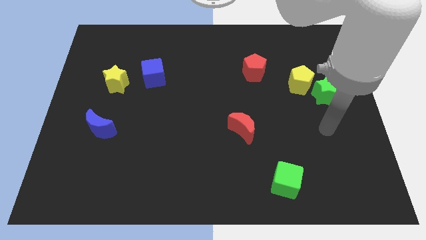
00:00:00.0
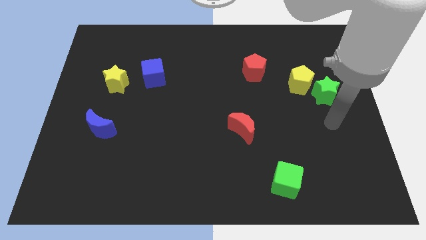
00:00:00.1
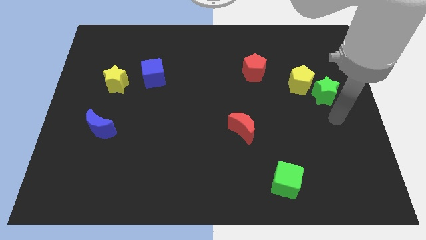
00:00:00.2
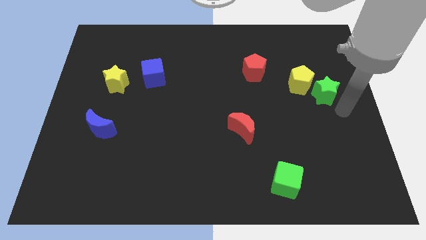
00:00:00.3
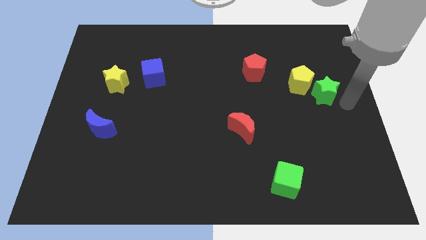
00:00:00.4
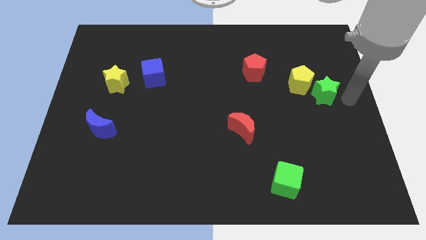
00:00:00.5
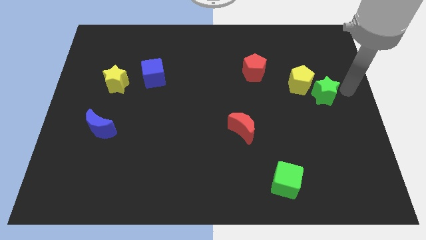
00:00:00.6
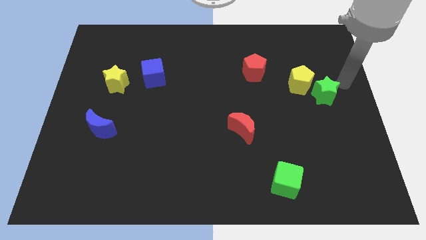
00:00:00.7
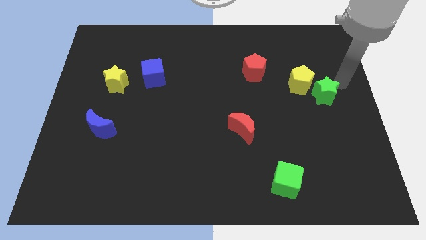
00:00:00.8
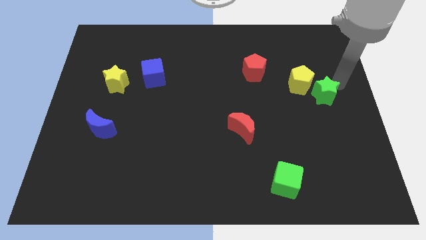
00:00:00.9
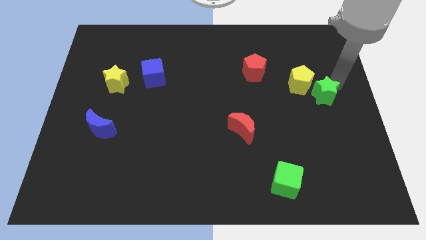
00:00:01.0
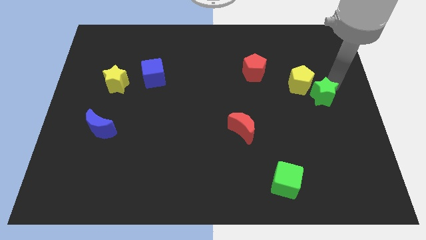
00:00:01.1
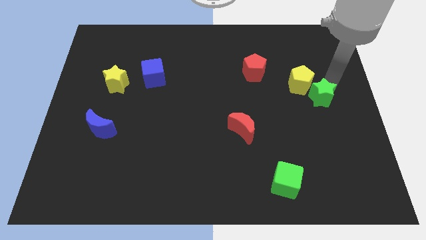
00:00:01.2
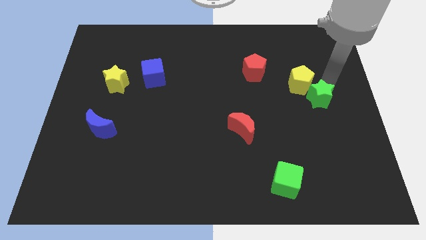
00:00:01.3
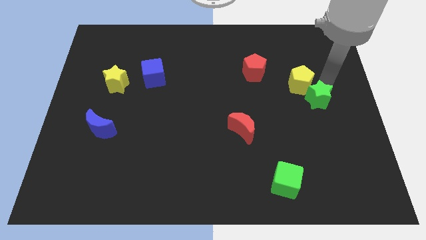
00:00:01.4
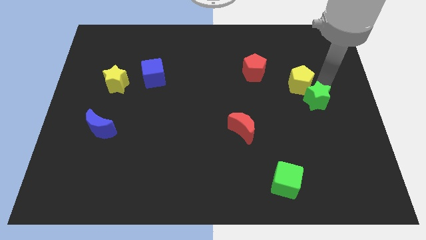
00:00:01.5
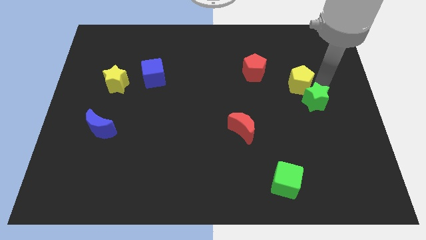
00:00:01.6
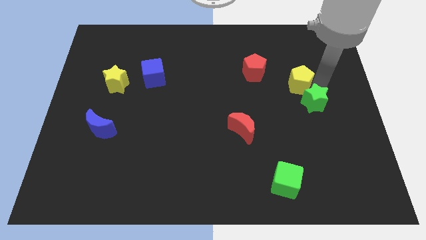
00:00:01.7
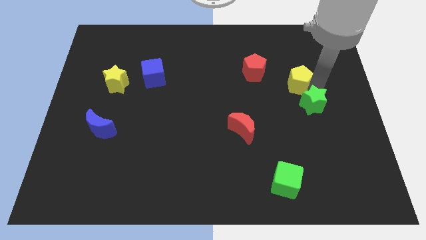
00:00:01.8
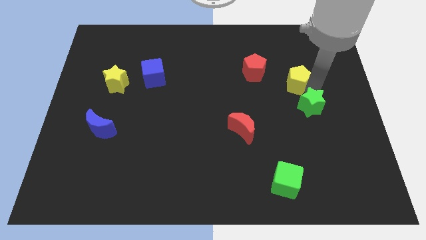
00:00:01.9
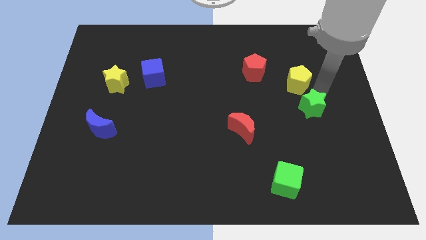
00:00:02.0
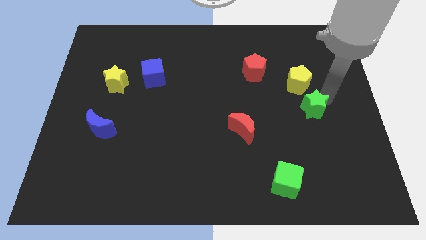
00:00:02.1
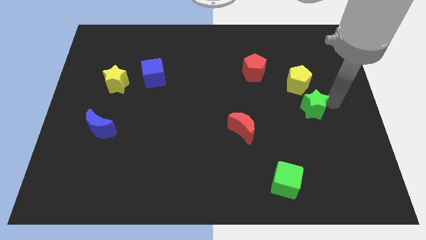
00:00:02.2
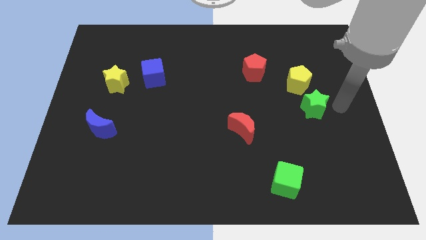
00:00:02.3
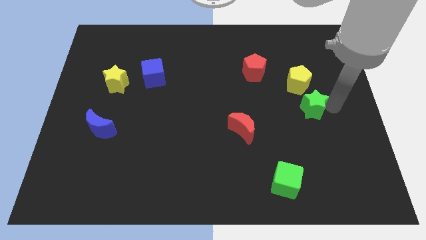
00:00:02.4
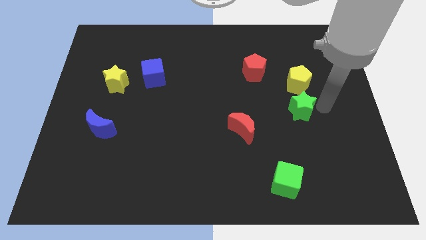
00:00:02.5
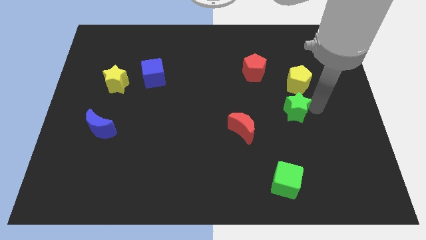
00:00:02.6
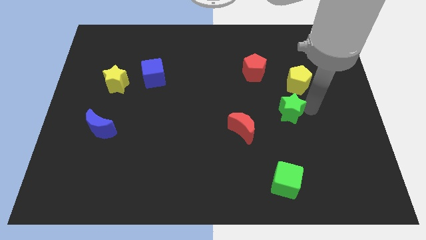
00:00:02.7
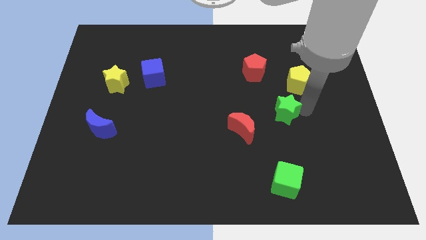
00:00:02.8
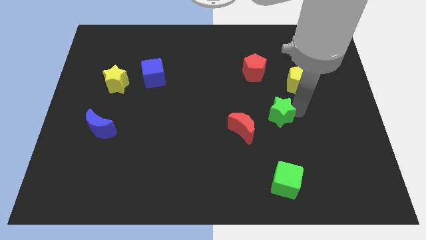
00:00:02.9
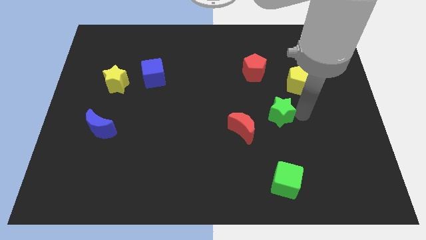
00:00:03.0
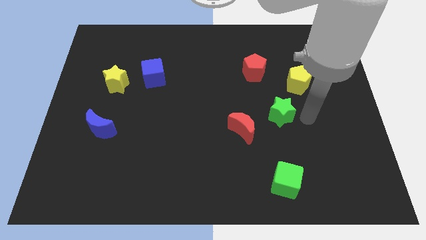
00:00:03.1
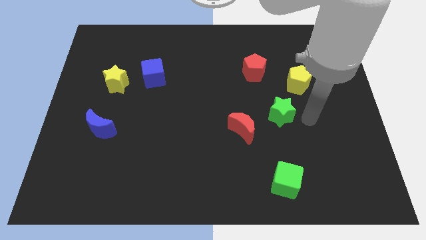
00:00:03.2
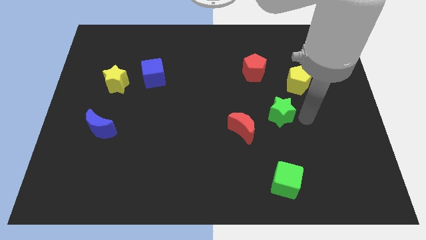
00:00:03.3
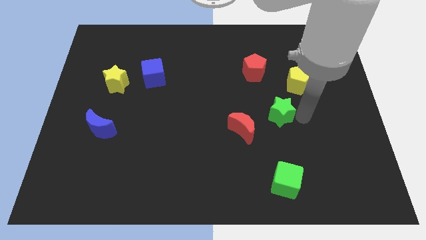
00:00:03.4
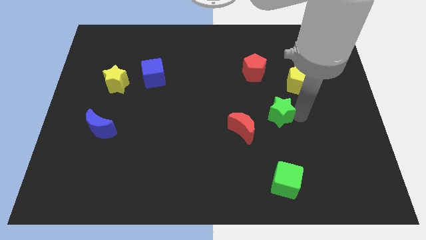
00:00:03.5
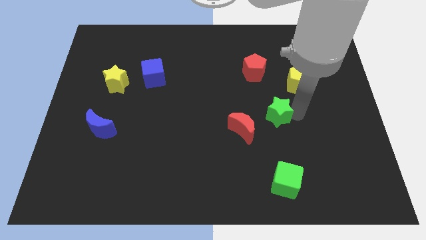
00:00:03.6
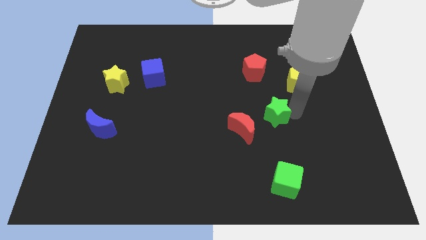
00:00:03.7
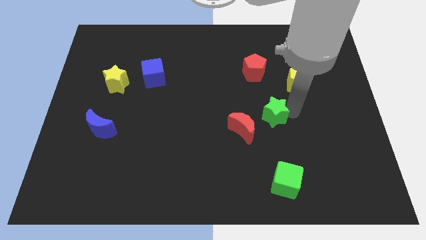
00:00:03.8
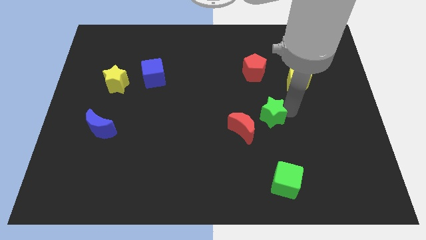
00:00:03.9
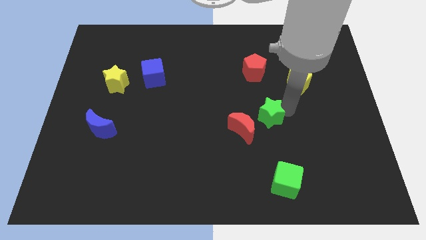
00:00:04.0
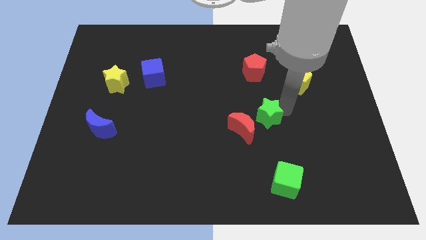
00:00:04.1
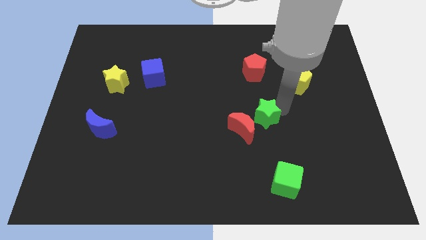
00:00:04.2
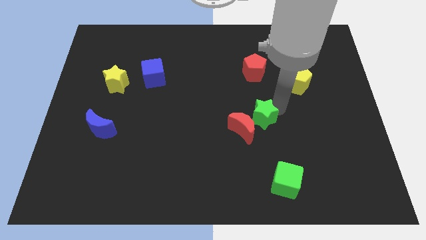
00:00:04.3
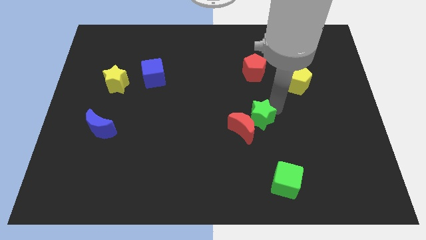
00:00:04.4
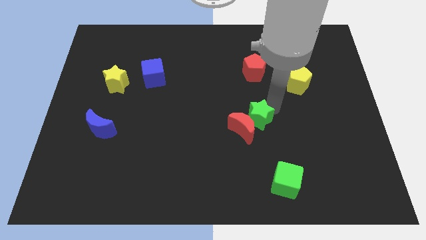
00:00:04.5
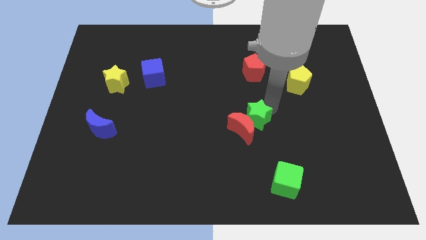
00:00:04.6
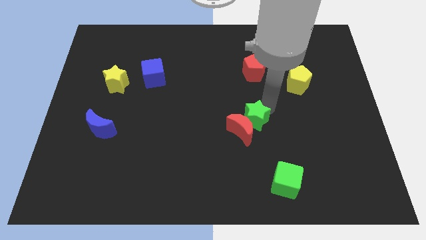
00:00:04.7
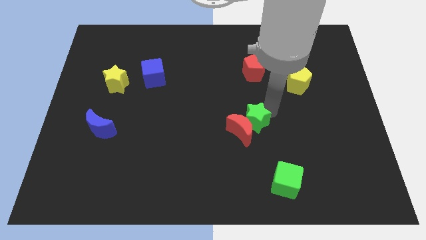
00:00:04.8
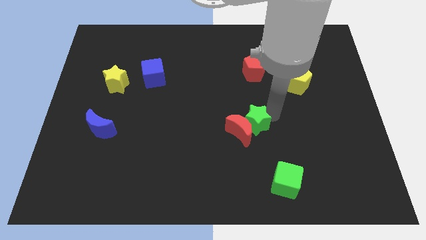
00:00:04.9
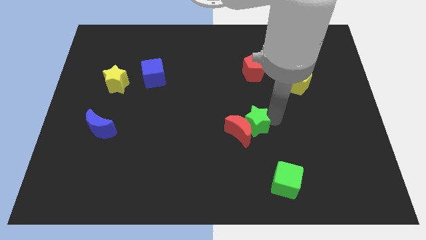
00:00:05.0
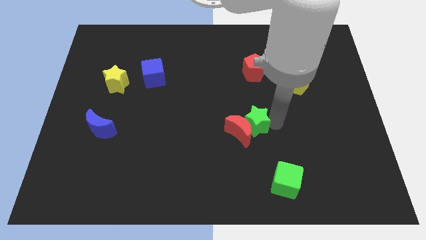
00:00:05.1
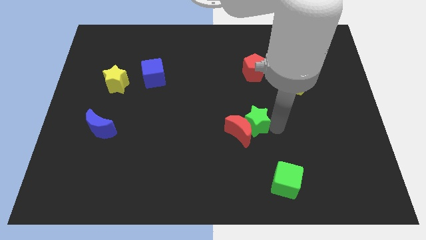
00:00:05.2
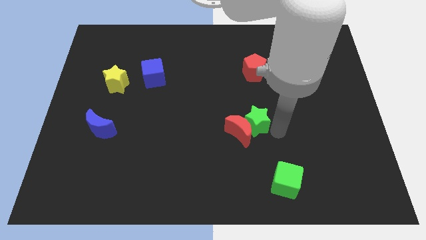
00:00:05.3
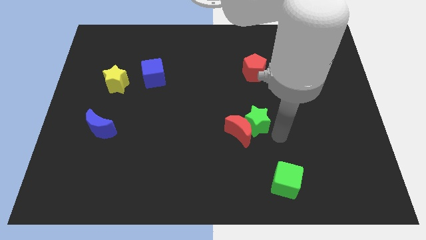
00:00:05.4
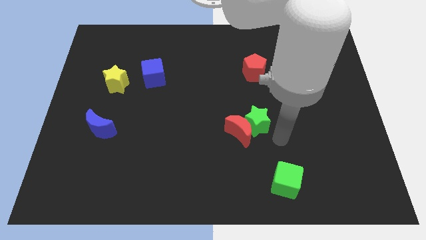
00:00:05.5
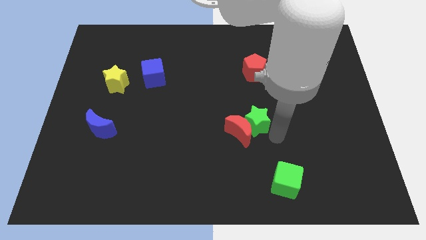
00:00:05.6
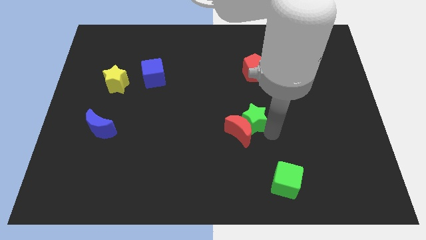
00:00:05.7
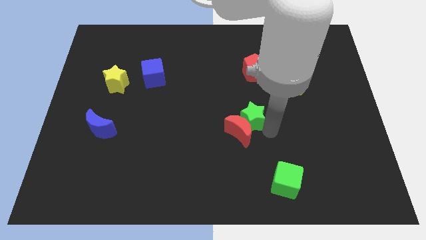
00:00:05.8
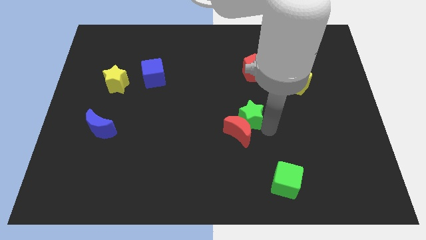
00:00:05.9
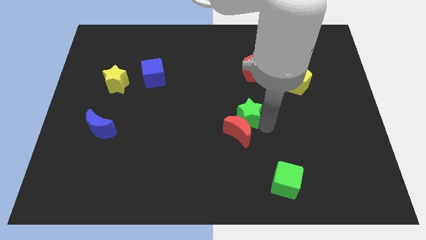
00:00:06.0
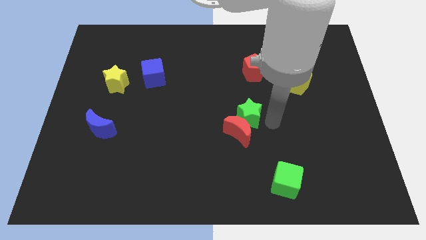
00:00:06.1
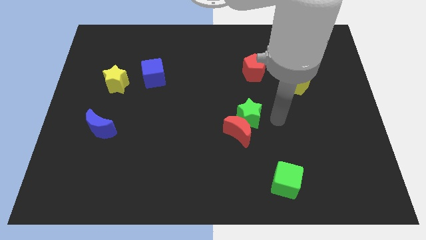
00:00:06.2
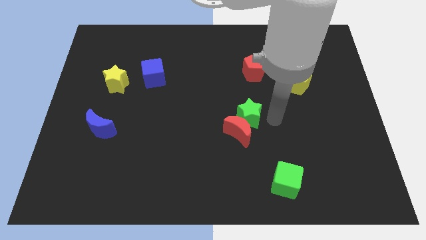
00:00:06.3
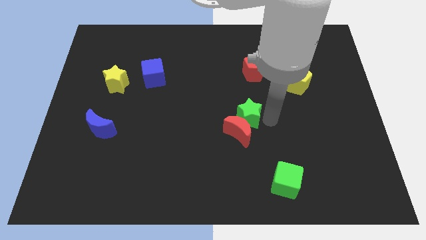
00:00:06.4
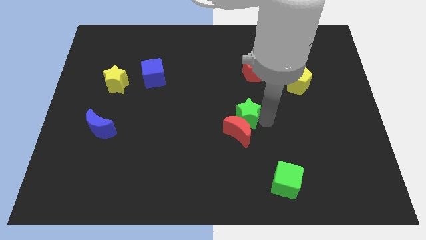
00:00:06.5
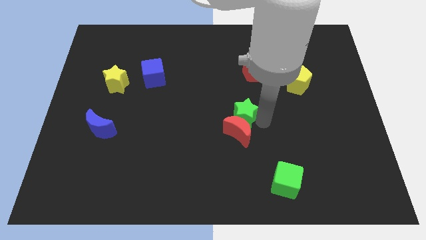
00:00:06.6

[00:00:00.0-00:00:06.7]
slide the green star to the top left of the red moon

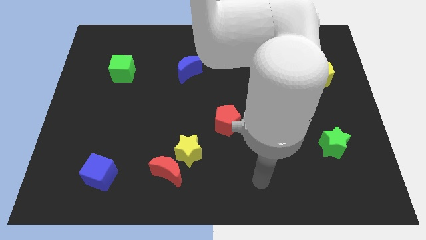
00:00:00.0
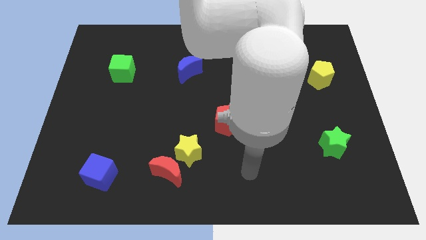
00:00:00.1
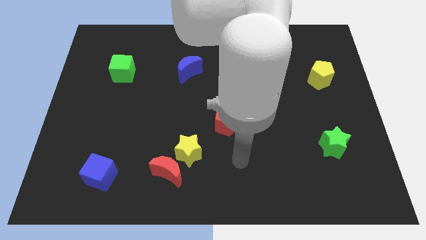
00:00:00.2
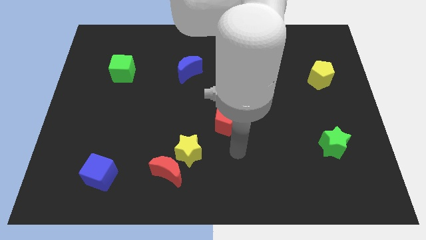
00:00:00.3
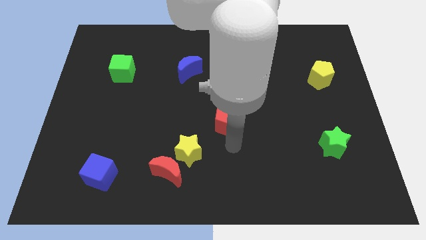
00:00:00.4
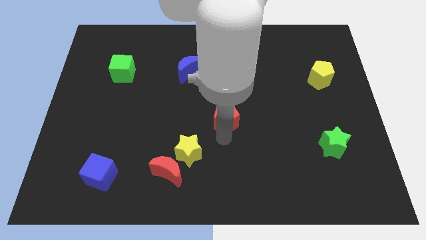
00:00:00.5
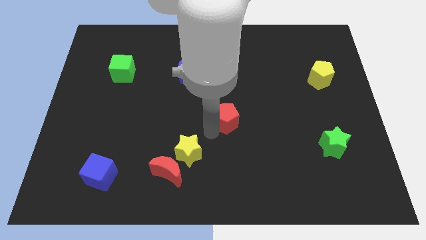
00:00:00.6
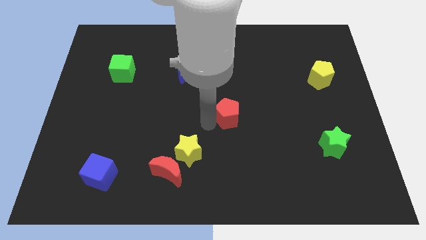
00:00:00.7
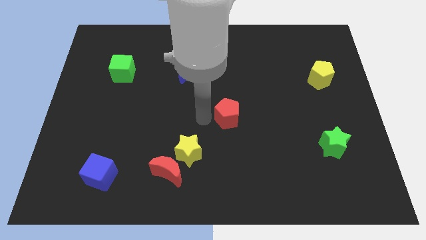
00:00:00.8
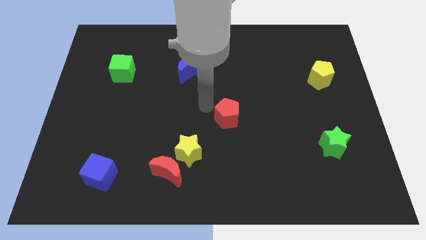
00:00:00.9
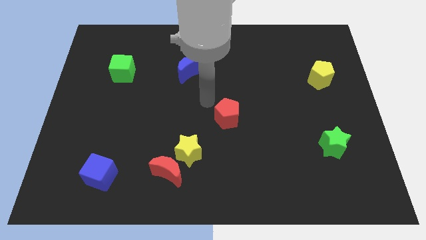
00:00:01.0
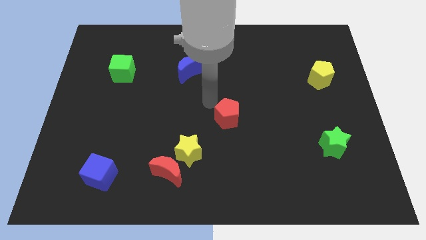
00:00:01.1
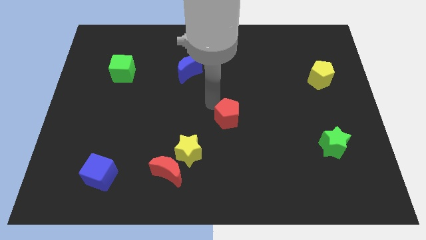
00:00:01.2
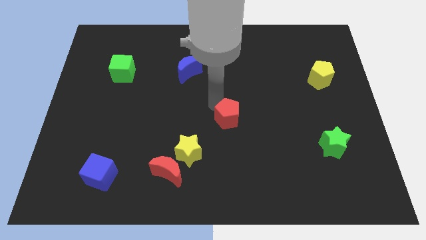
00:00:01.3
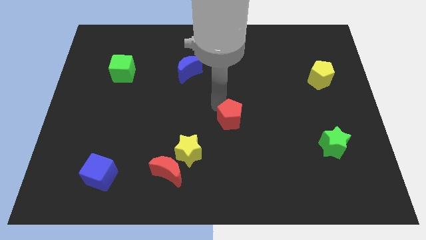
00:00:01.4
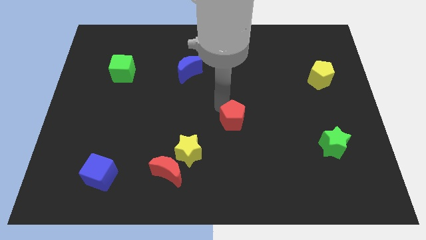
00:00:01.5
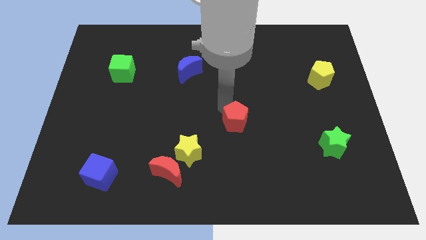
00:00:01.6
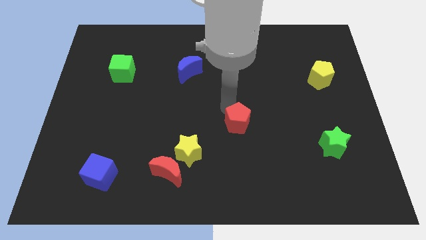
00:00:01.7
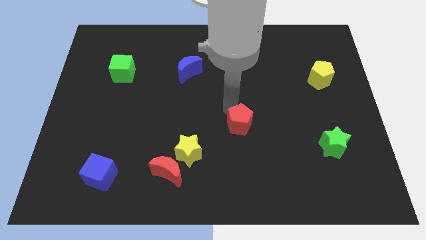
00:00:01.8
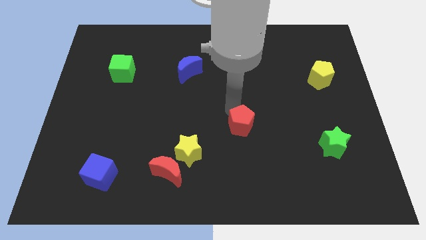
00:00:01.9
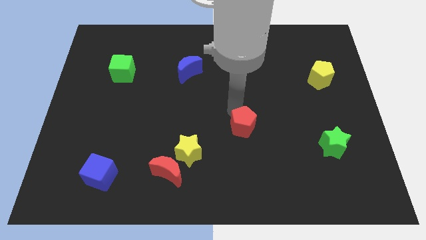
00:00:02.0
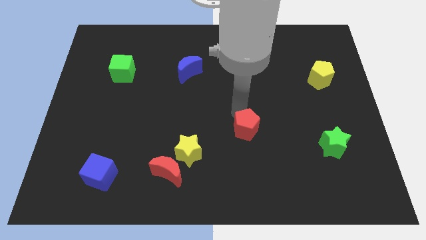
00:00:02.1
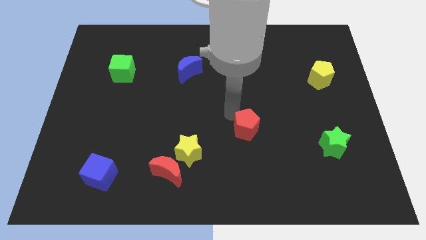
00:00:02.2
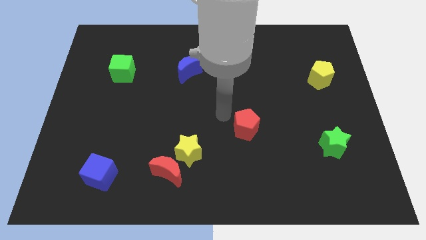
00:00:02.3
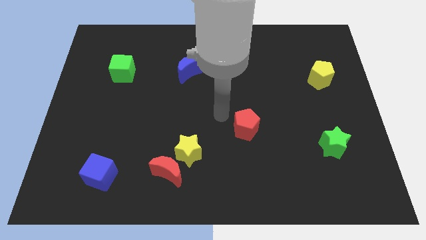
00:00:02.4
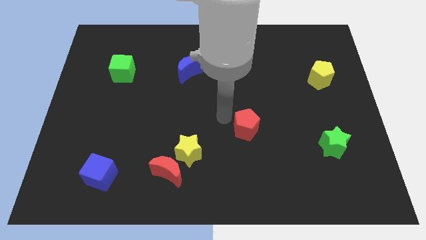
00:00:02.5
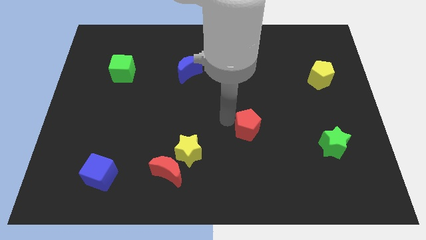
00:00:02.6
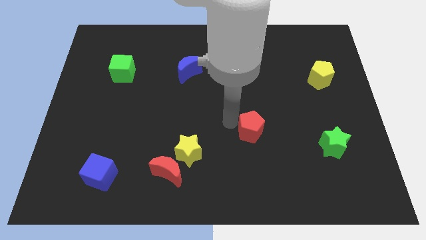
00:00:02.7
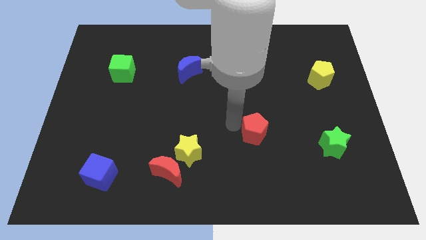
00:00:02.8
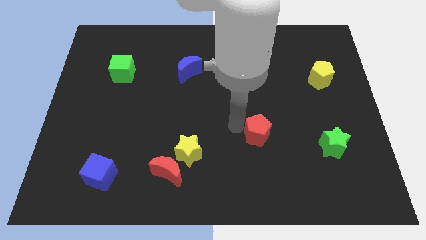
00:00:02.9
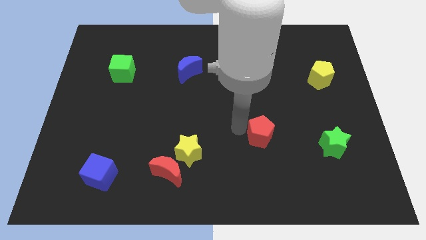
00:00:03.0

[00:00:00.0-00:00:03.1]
move the red pentagon to the left side of the green star
